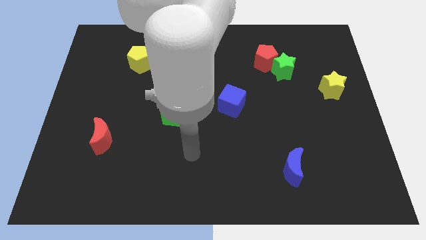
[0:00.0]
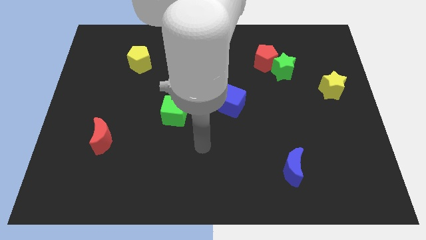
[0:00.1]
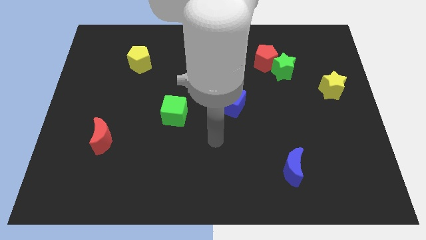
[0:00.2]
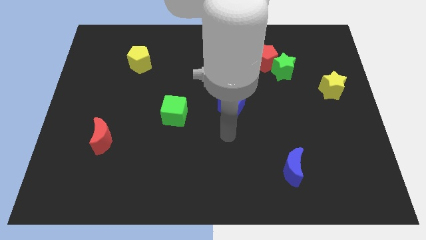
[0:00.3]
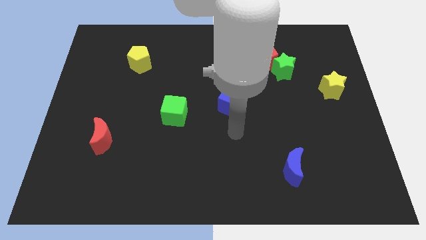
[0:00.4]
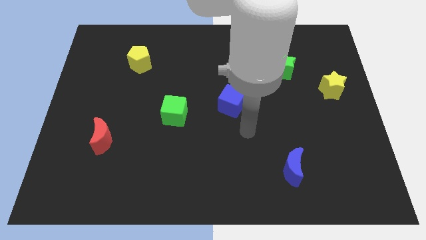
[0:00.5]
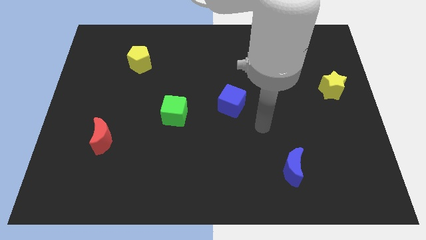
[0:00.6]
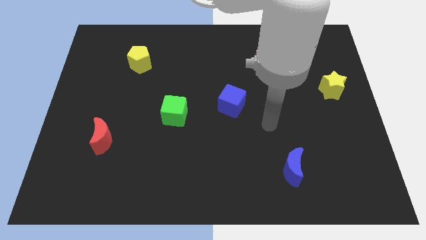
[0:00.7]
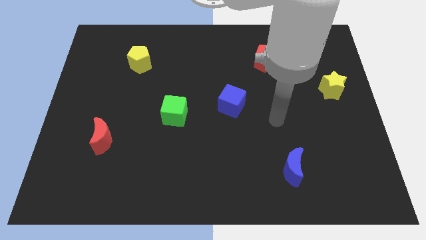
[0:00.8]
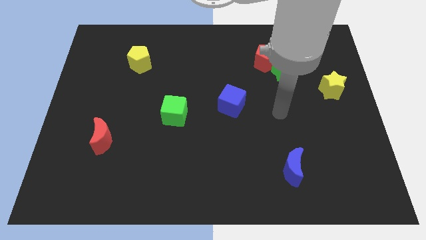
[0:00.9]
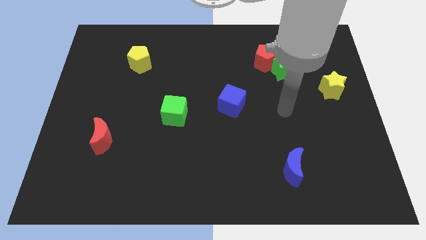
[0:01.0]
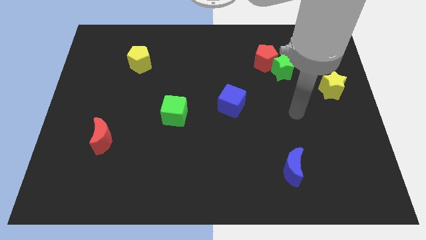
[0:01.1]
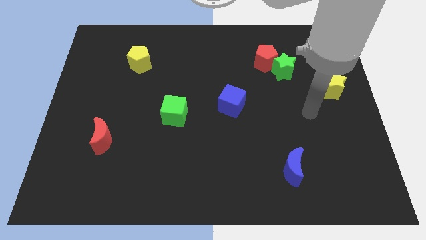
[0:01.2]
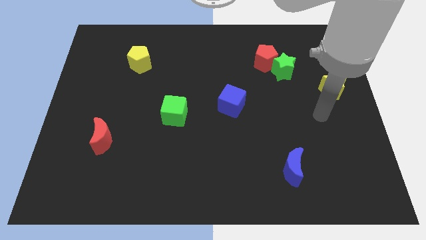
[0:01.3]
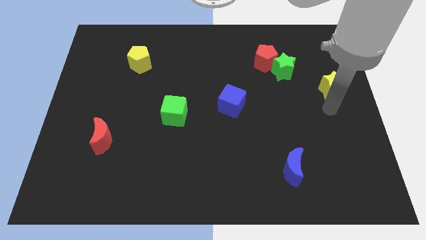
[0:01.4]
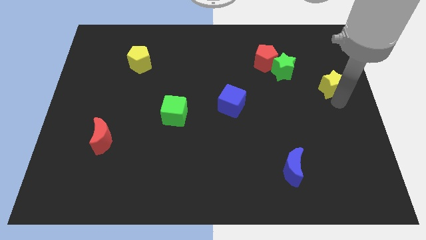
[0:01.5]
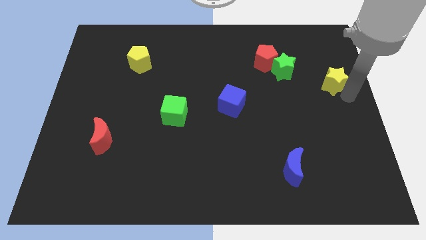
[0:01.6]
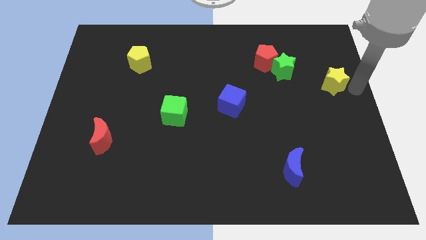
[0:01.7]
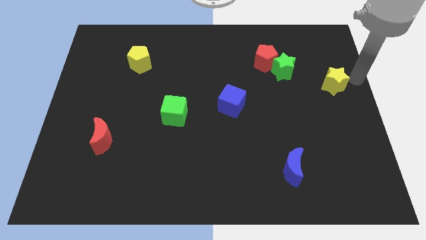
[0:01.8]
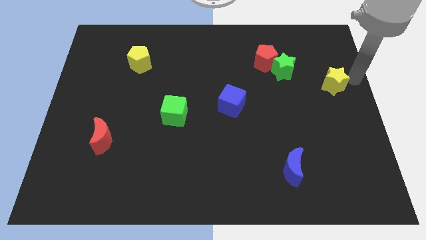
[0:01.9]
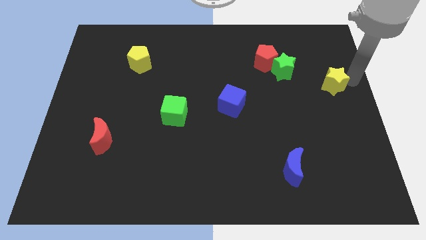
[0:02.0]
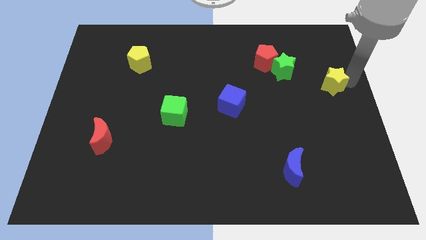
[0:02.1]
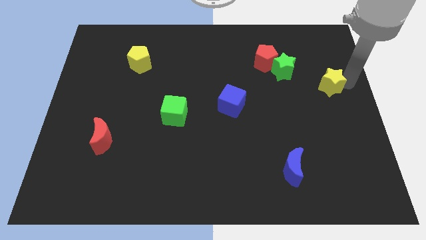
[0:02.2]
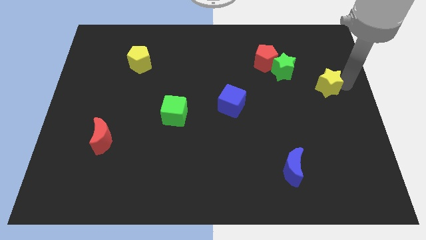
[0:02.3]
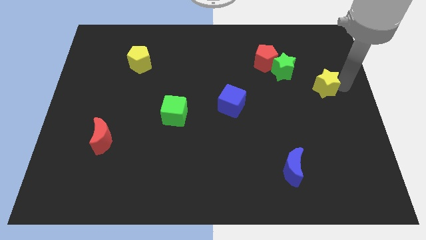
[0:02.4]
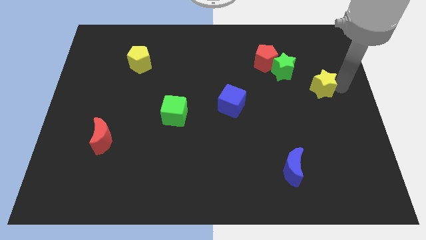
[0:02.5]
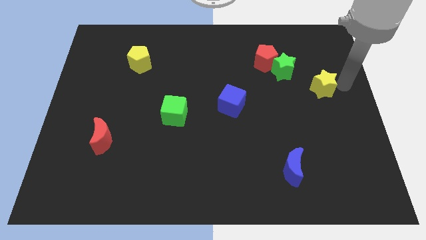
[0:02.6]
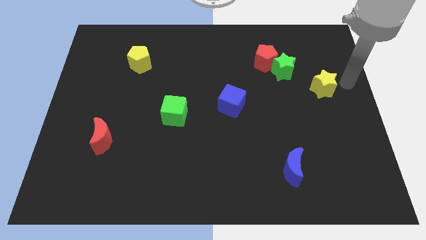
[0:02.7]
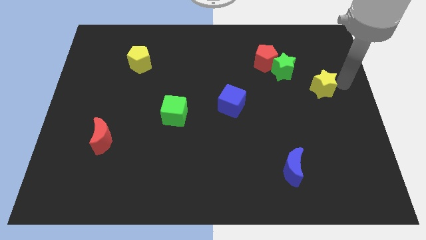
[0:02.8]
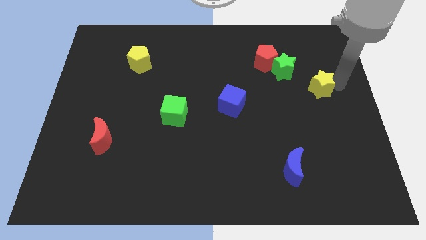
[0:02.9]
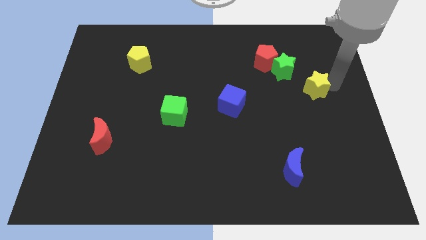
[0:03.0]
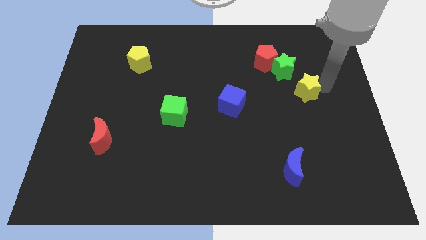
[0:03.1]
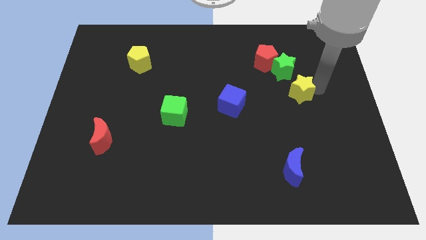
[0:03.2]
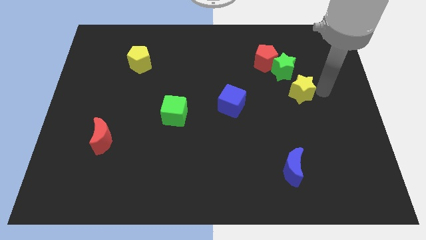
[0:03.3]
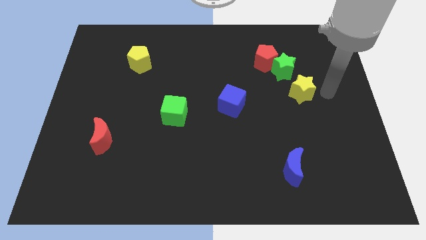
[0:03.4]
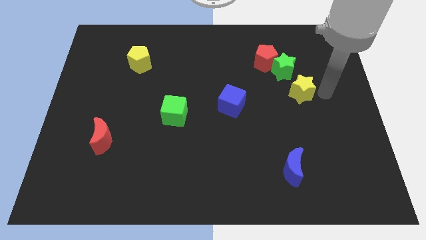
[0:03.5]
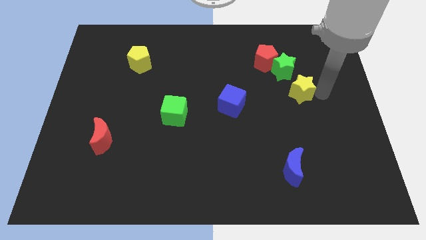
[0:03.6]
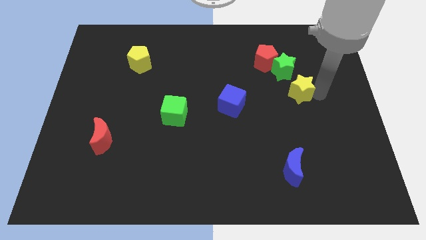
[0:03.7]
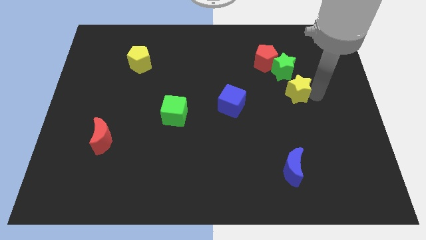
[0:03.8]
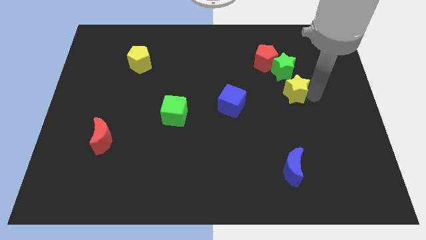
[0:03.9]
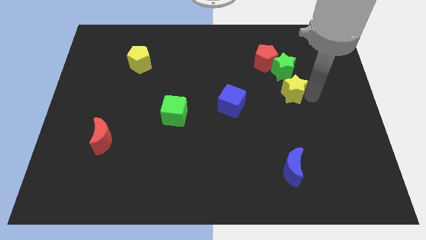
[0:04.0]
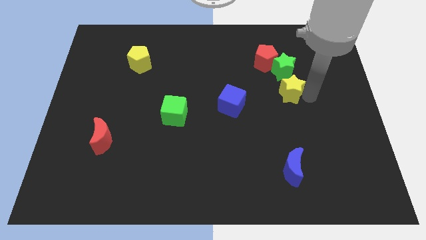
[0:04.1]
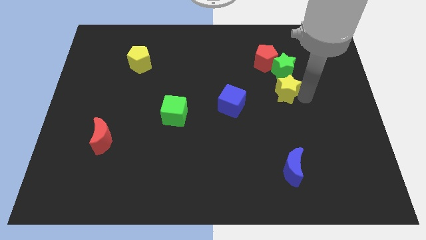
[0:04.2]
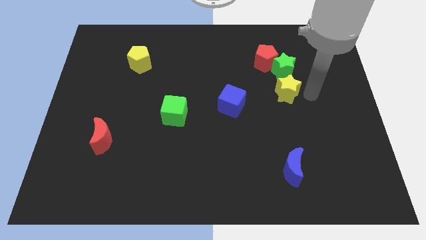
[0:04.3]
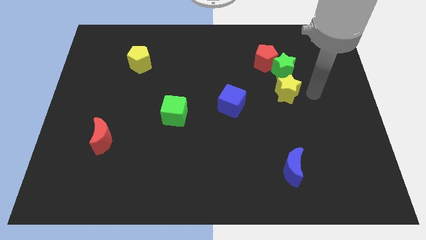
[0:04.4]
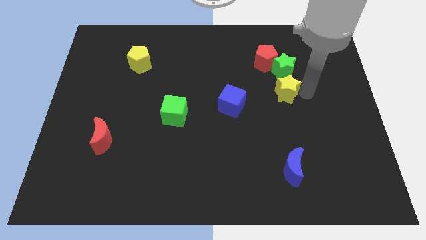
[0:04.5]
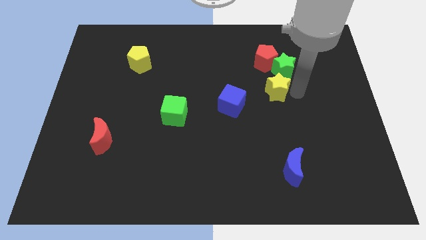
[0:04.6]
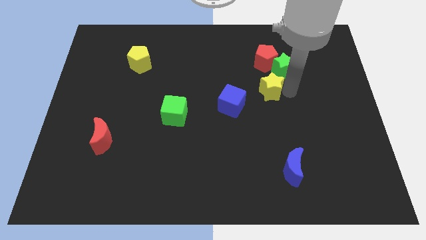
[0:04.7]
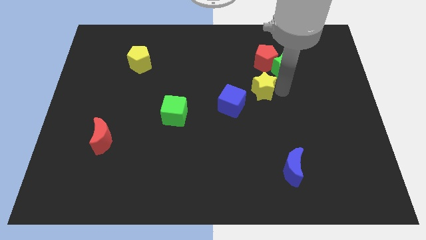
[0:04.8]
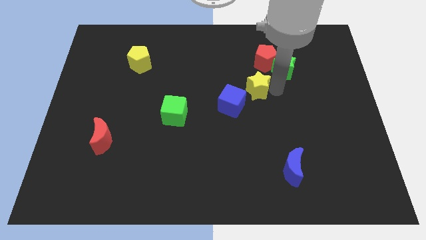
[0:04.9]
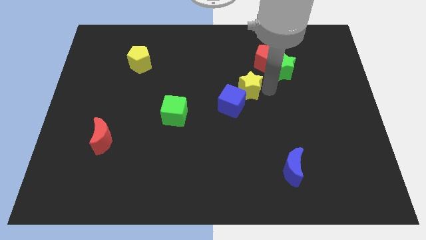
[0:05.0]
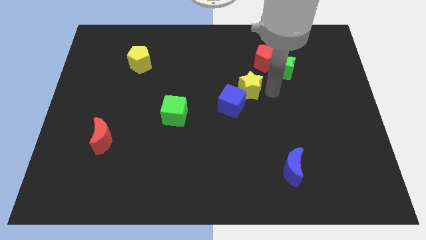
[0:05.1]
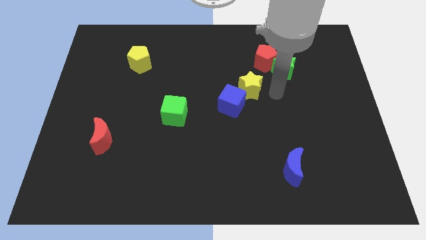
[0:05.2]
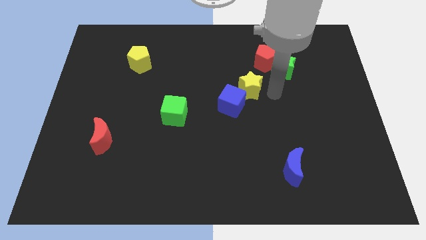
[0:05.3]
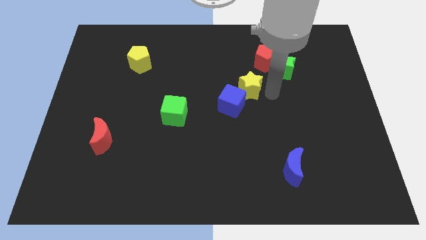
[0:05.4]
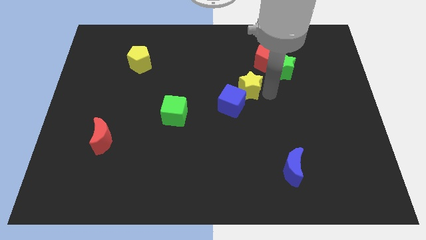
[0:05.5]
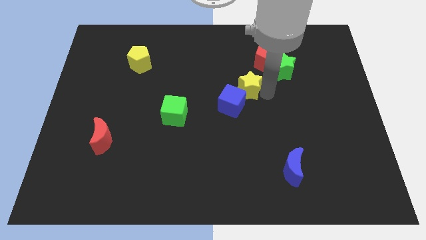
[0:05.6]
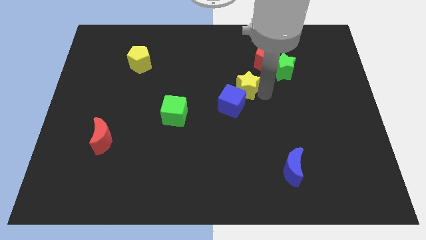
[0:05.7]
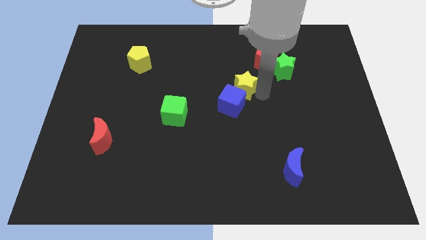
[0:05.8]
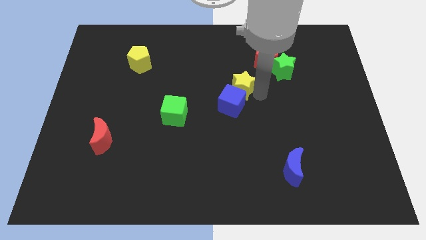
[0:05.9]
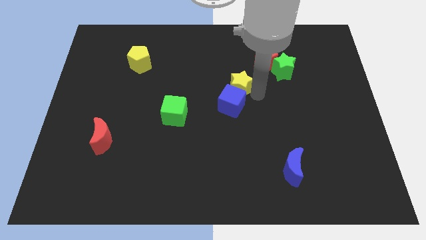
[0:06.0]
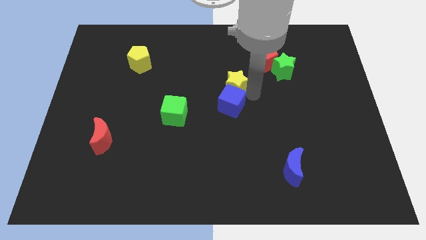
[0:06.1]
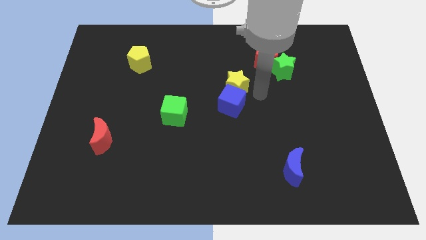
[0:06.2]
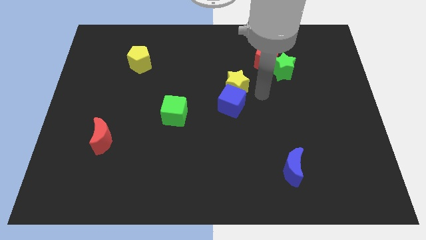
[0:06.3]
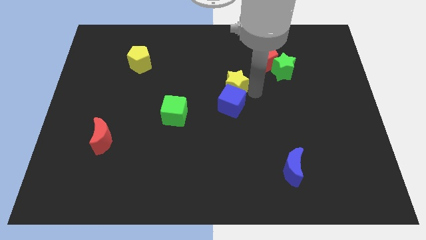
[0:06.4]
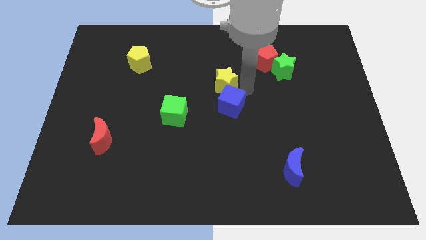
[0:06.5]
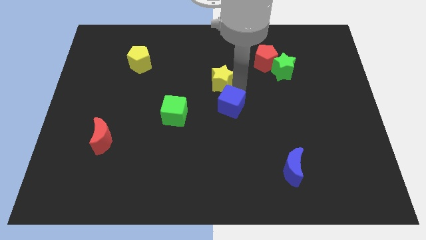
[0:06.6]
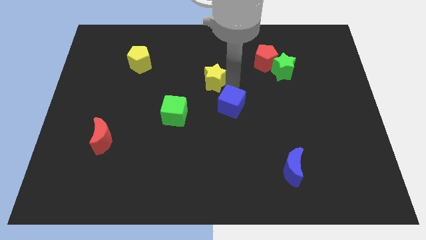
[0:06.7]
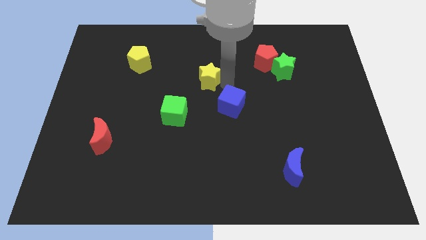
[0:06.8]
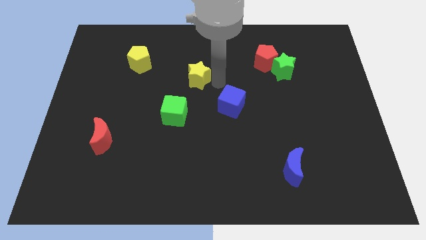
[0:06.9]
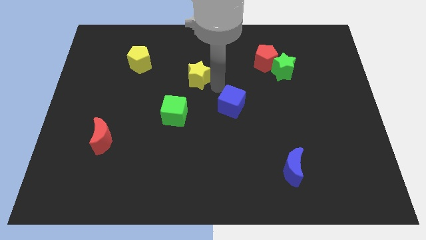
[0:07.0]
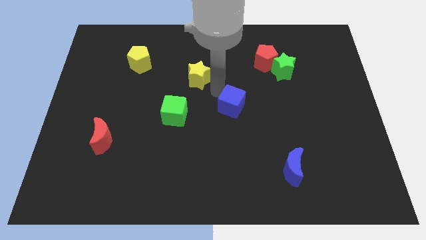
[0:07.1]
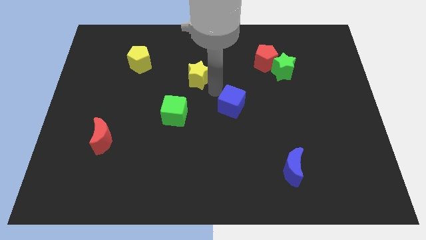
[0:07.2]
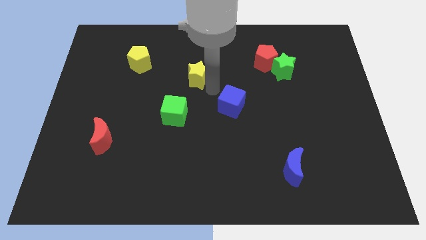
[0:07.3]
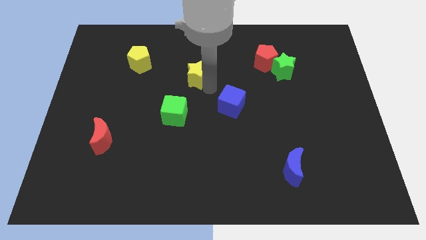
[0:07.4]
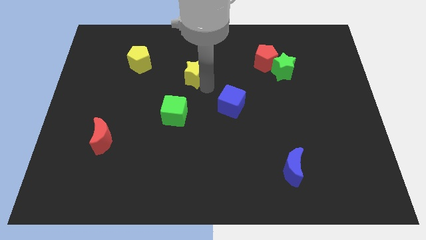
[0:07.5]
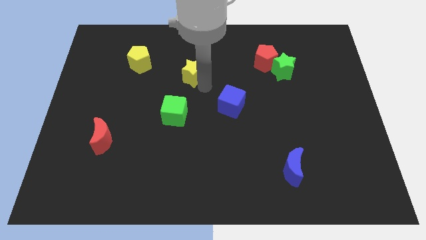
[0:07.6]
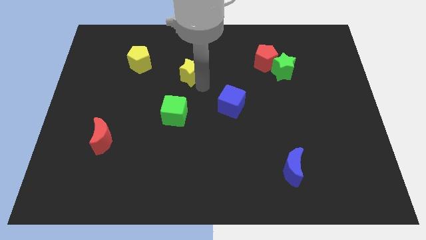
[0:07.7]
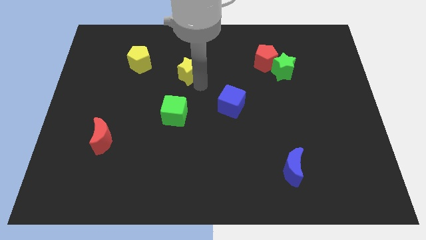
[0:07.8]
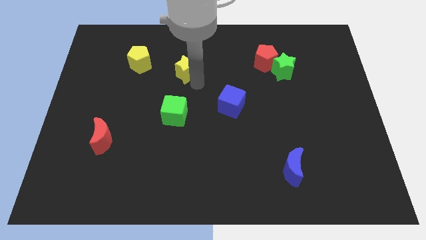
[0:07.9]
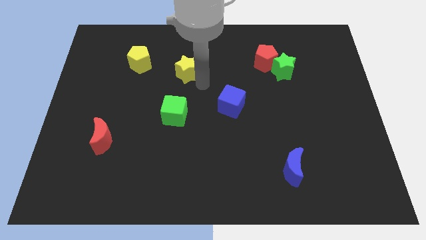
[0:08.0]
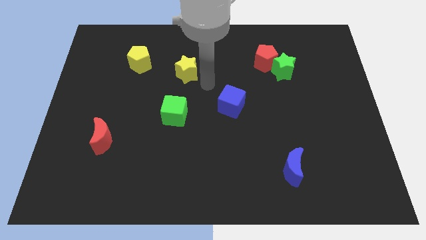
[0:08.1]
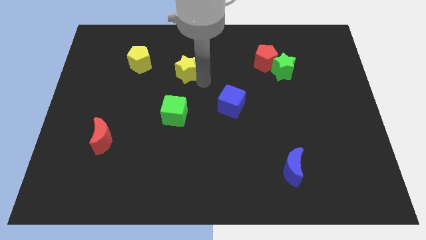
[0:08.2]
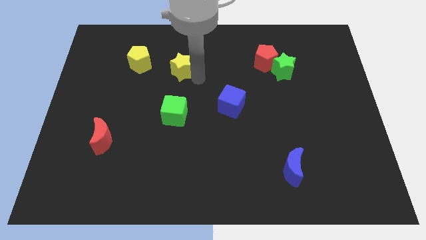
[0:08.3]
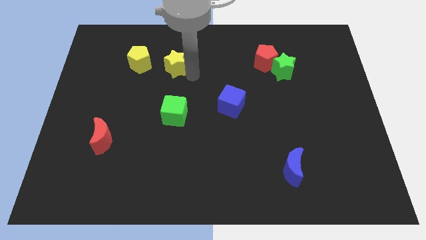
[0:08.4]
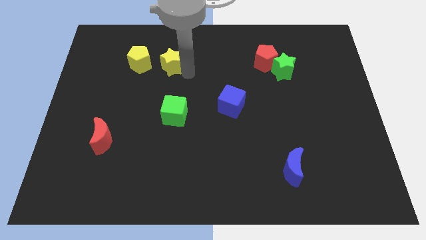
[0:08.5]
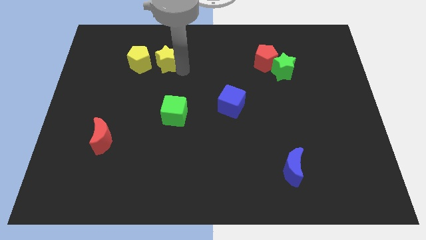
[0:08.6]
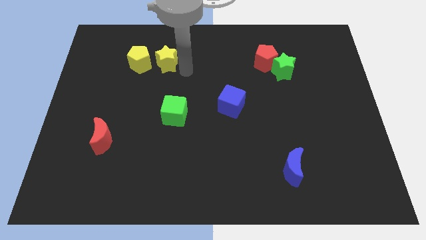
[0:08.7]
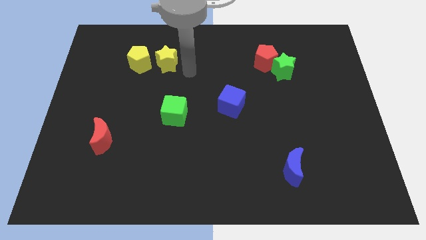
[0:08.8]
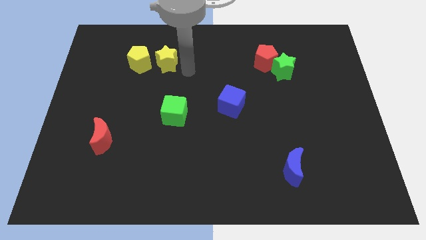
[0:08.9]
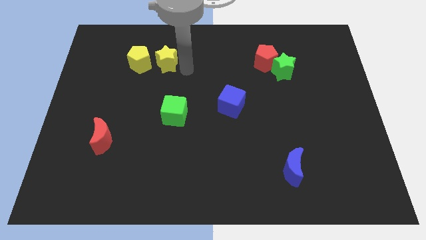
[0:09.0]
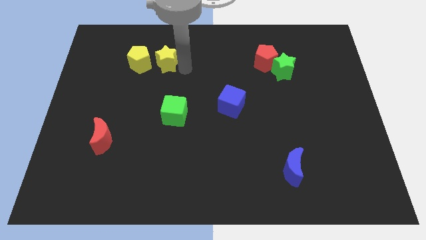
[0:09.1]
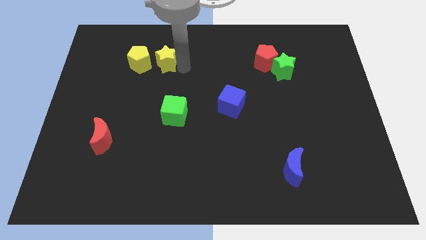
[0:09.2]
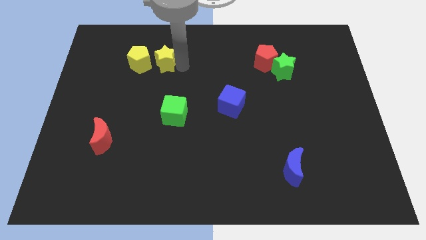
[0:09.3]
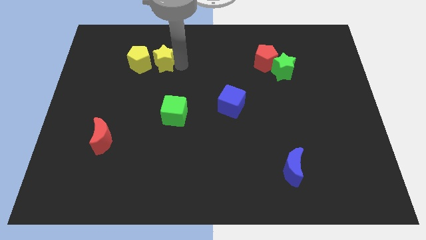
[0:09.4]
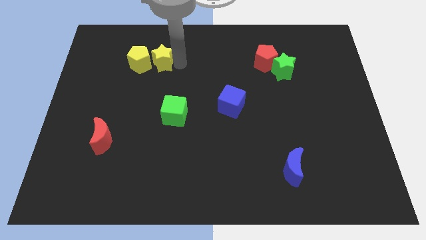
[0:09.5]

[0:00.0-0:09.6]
slide the yellow star close to the yellow pentagon
